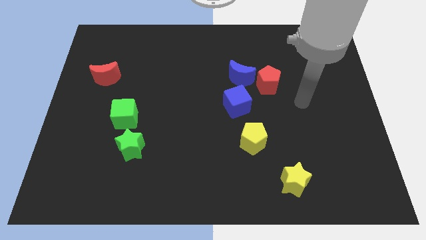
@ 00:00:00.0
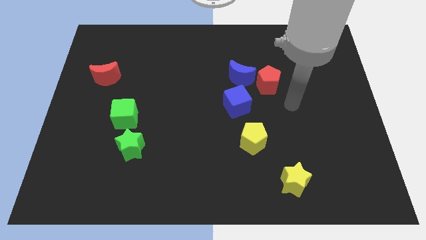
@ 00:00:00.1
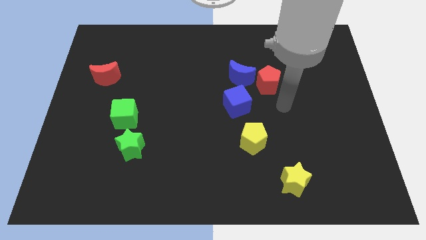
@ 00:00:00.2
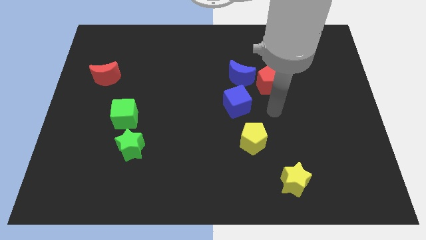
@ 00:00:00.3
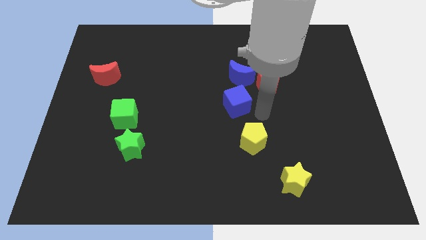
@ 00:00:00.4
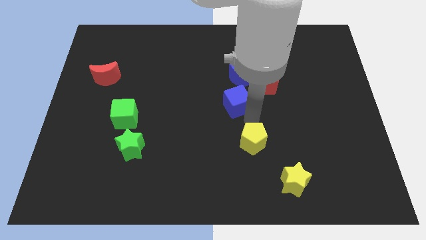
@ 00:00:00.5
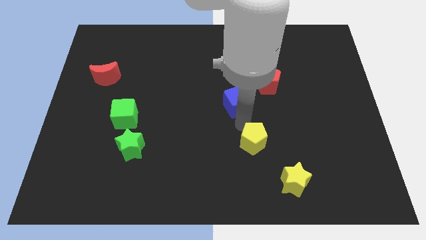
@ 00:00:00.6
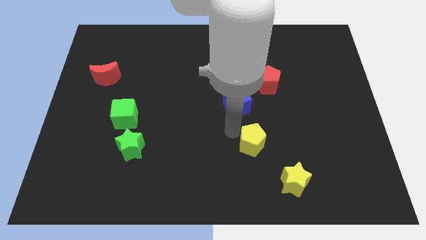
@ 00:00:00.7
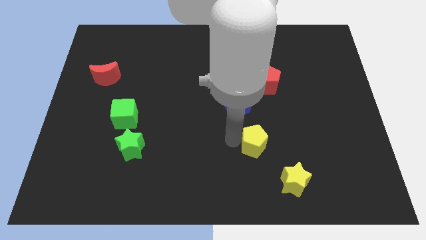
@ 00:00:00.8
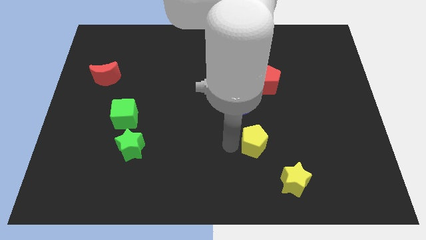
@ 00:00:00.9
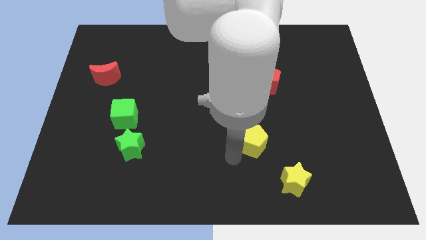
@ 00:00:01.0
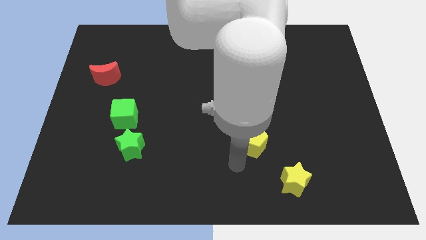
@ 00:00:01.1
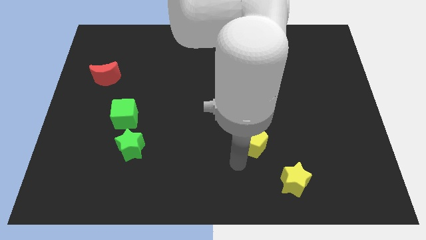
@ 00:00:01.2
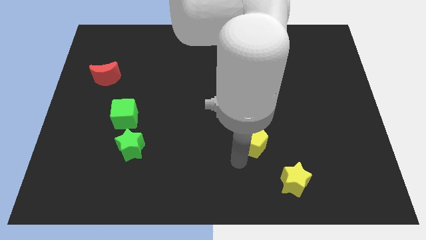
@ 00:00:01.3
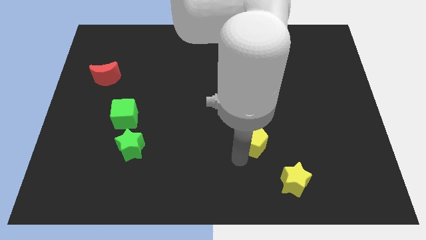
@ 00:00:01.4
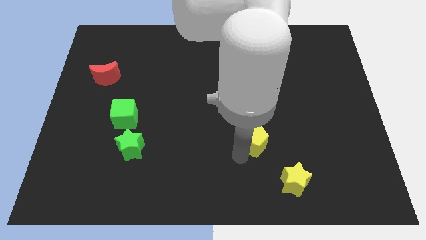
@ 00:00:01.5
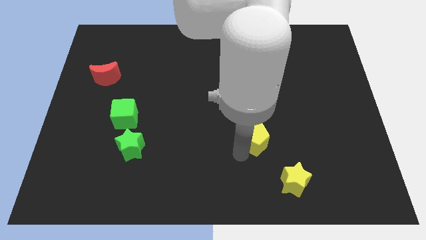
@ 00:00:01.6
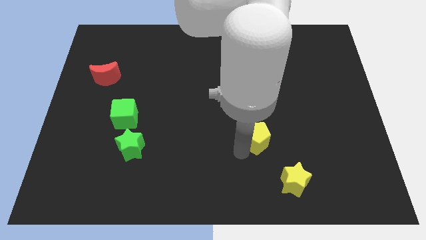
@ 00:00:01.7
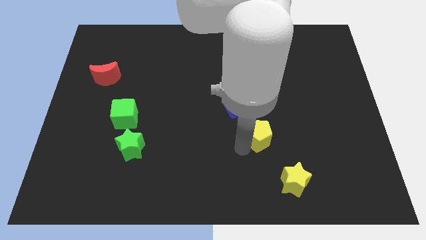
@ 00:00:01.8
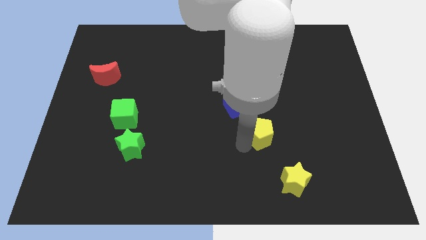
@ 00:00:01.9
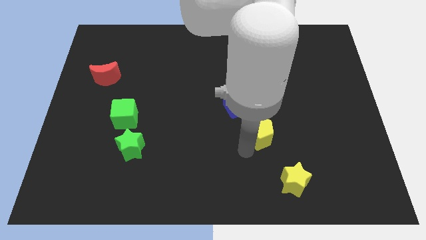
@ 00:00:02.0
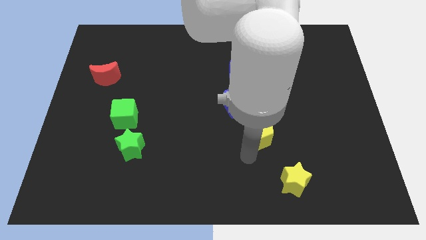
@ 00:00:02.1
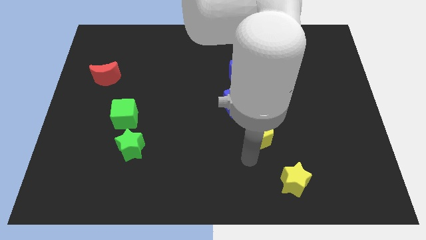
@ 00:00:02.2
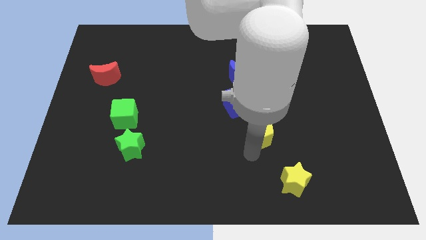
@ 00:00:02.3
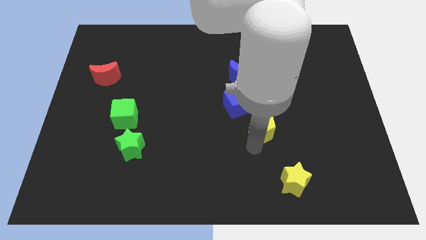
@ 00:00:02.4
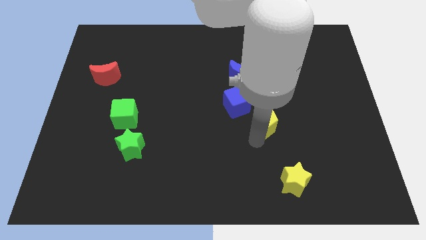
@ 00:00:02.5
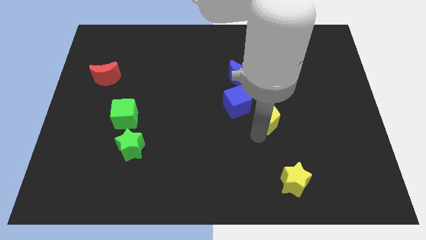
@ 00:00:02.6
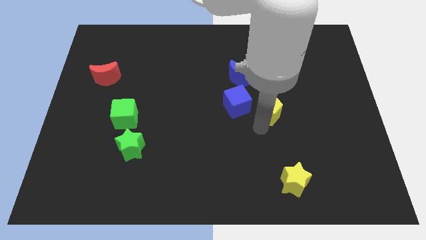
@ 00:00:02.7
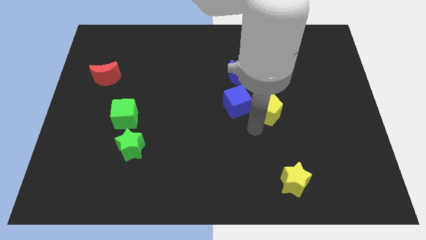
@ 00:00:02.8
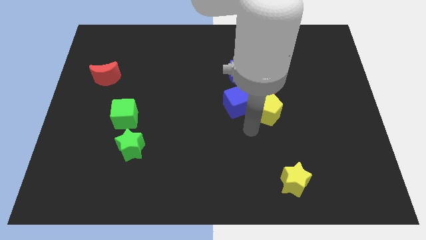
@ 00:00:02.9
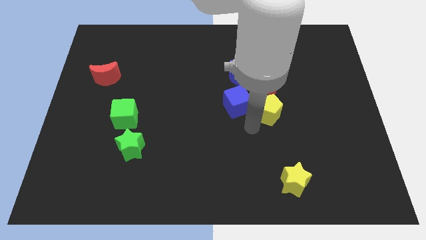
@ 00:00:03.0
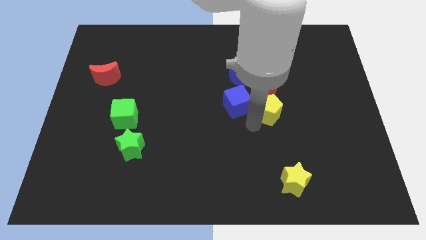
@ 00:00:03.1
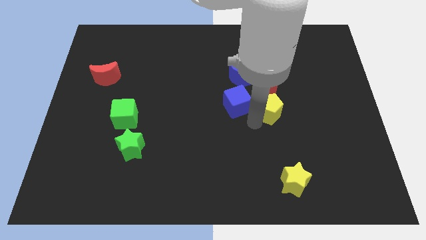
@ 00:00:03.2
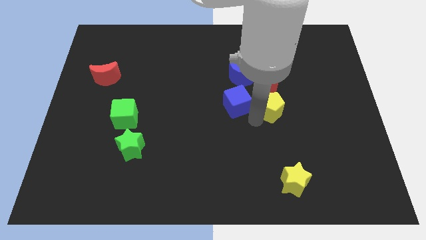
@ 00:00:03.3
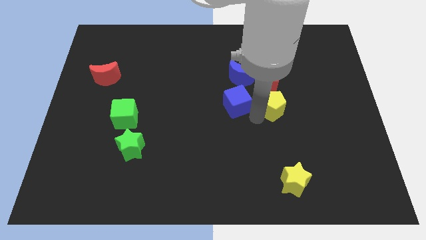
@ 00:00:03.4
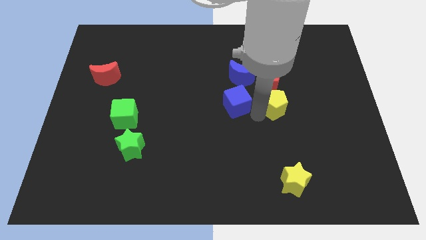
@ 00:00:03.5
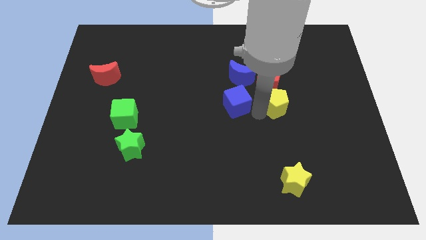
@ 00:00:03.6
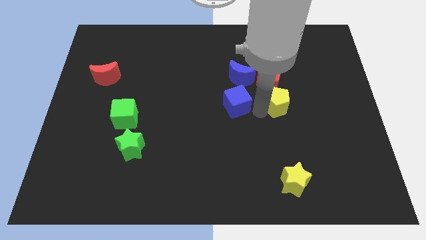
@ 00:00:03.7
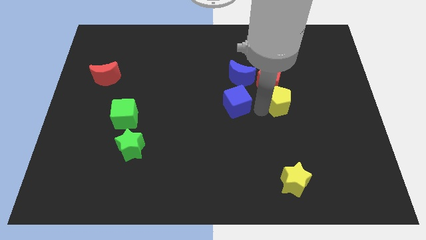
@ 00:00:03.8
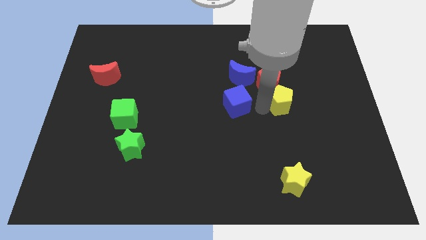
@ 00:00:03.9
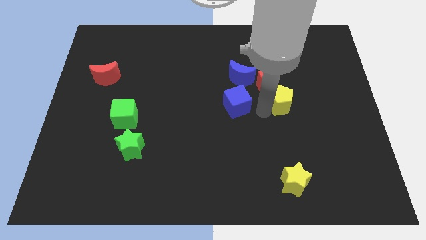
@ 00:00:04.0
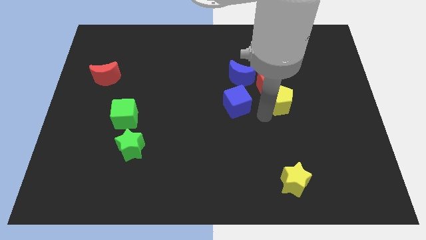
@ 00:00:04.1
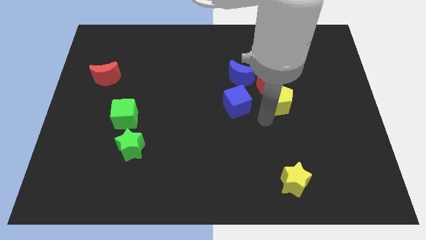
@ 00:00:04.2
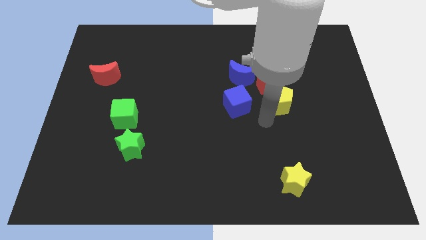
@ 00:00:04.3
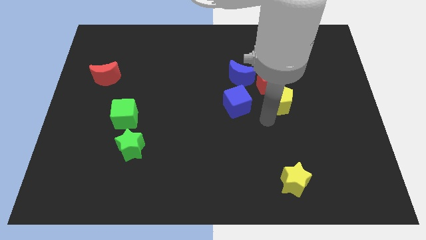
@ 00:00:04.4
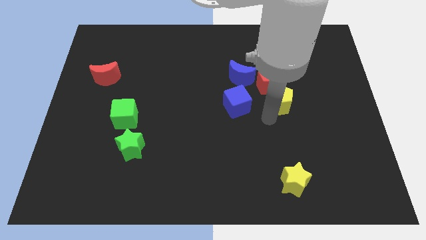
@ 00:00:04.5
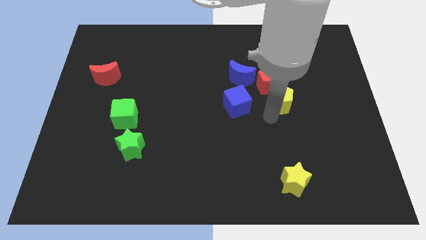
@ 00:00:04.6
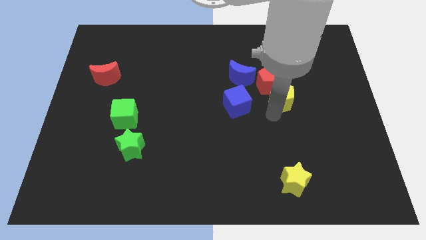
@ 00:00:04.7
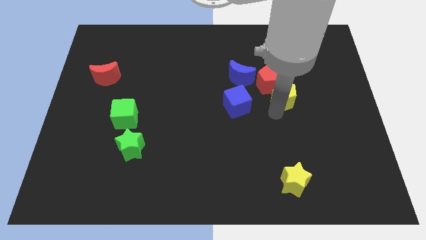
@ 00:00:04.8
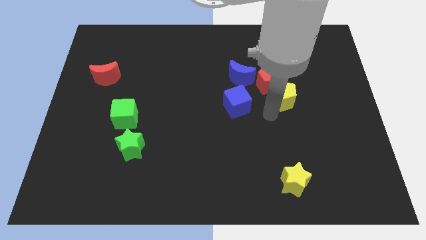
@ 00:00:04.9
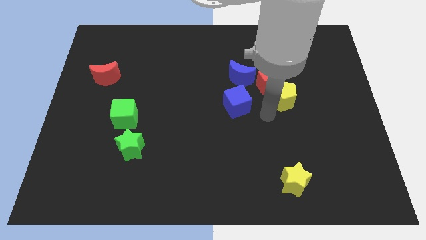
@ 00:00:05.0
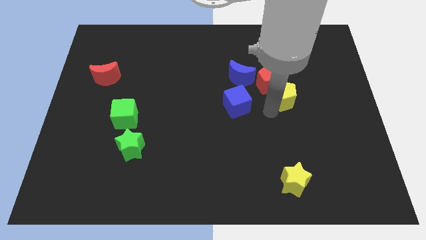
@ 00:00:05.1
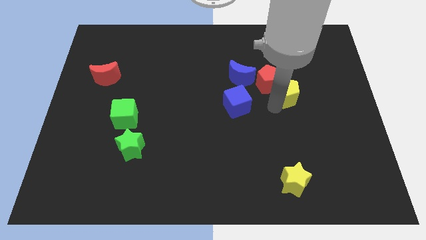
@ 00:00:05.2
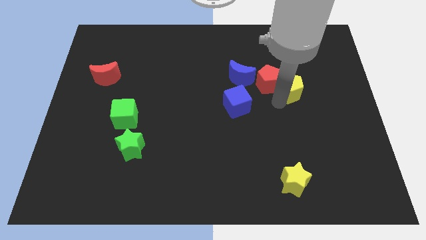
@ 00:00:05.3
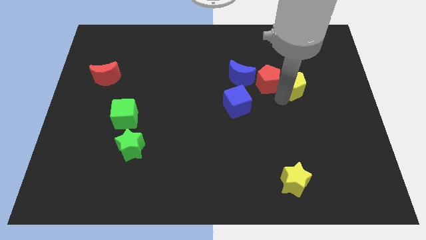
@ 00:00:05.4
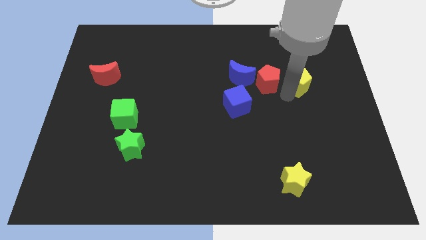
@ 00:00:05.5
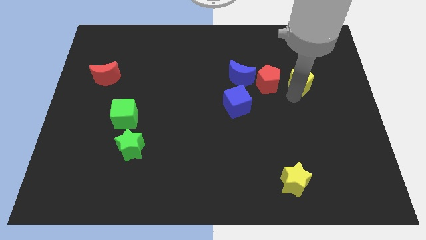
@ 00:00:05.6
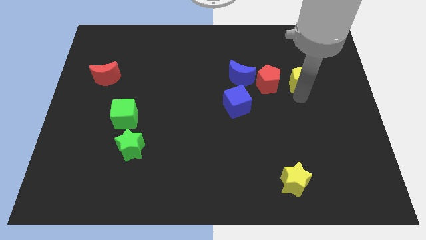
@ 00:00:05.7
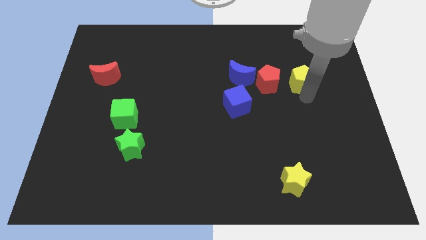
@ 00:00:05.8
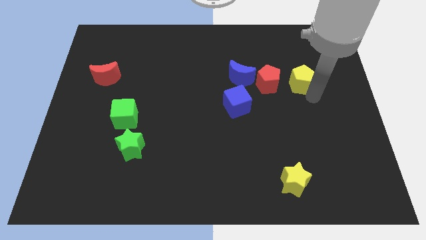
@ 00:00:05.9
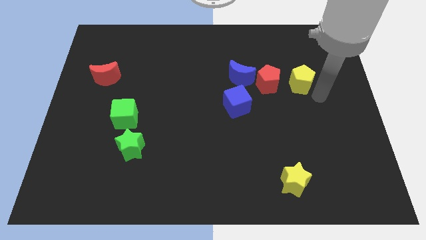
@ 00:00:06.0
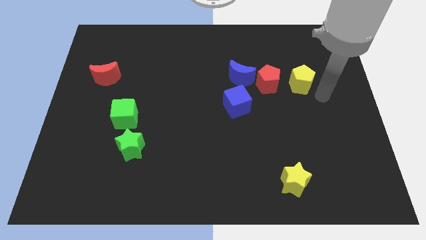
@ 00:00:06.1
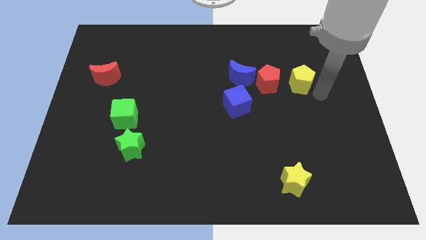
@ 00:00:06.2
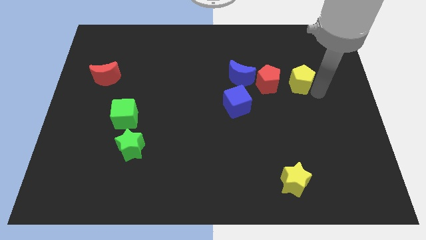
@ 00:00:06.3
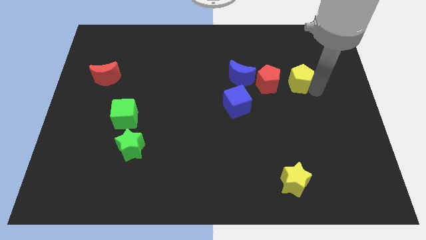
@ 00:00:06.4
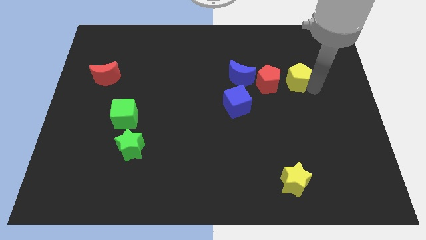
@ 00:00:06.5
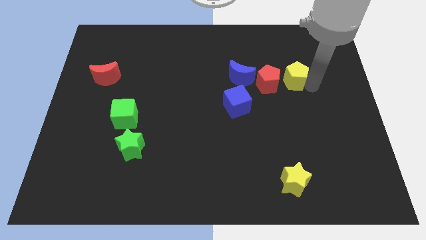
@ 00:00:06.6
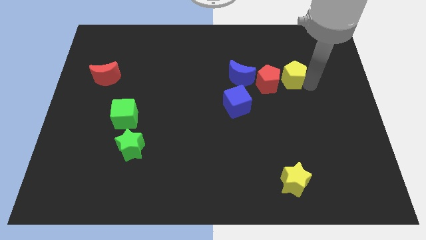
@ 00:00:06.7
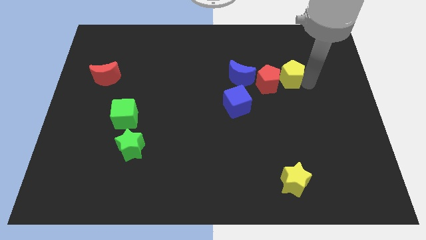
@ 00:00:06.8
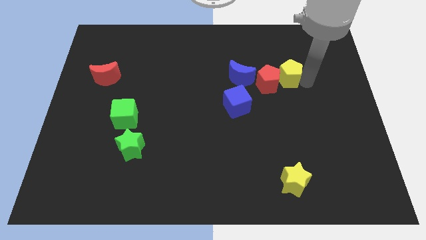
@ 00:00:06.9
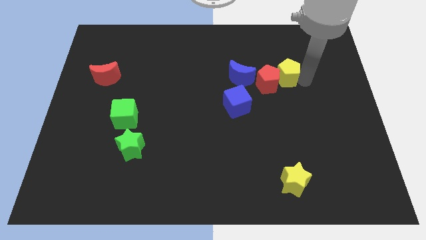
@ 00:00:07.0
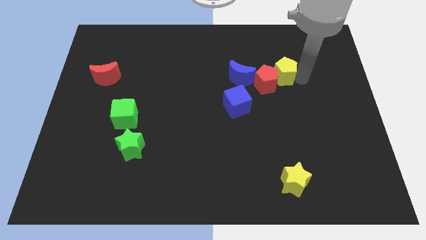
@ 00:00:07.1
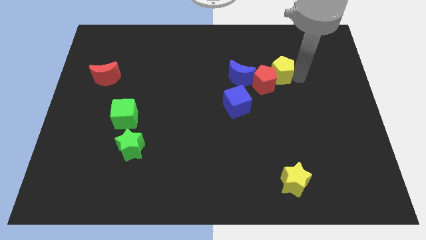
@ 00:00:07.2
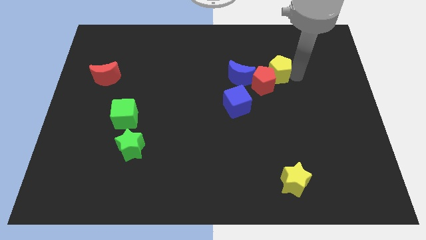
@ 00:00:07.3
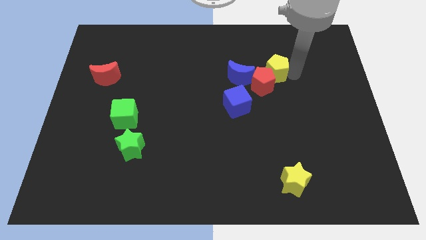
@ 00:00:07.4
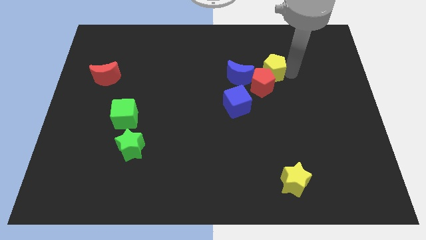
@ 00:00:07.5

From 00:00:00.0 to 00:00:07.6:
slide the yellow pentagon diagonally up and to the right of the blue moon
